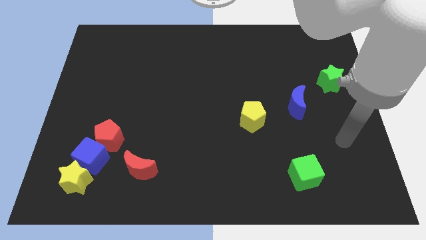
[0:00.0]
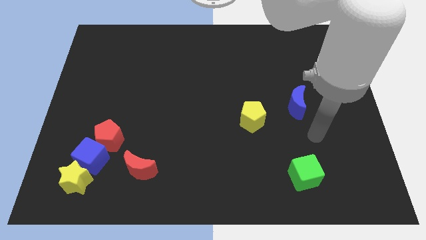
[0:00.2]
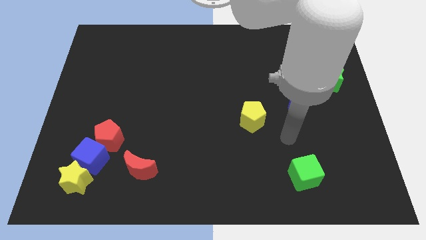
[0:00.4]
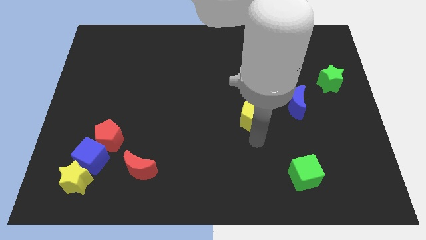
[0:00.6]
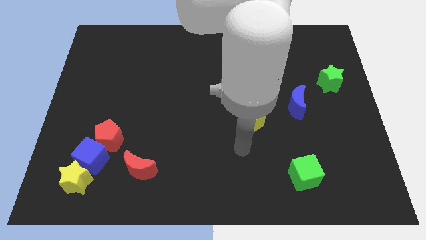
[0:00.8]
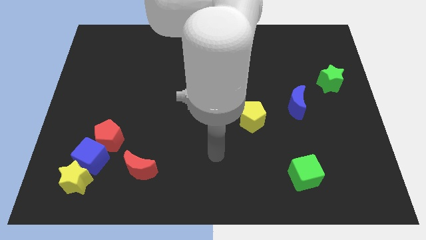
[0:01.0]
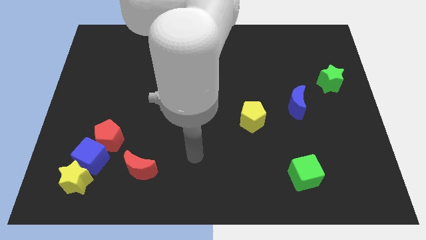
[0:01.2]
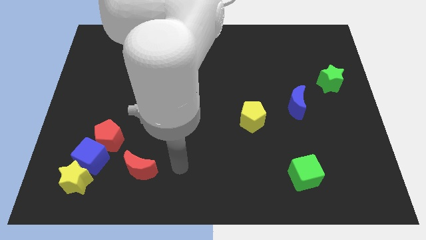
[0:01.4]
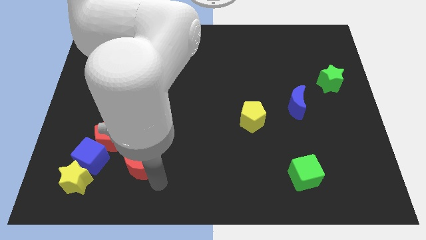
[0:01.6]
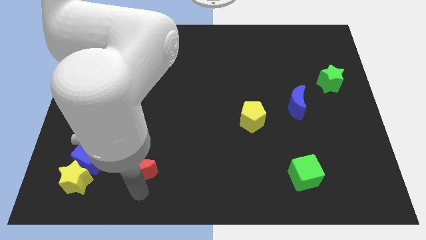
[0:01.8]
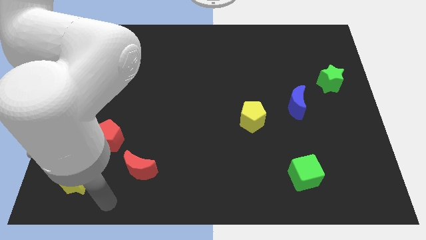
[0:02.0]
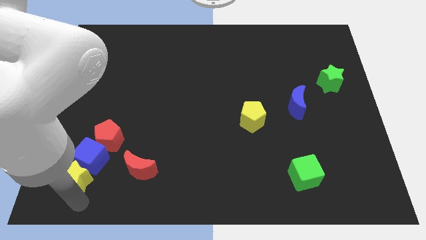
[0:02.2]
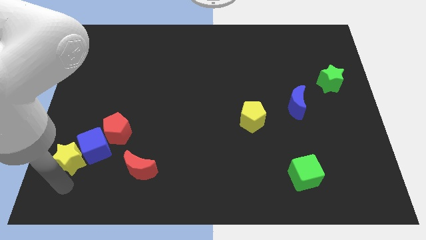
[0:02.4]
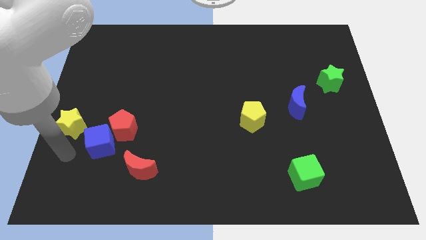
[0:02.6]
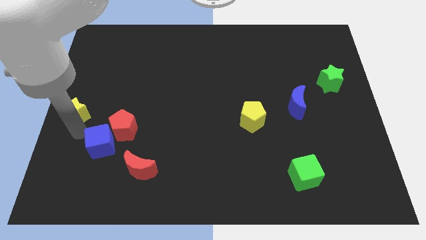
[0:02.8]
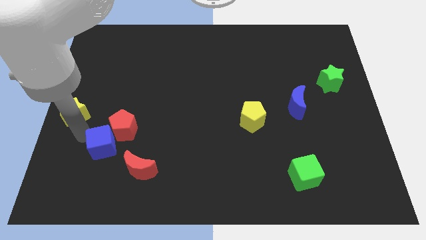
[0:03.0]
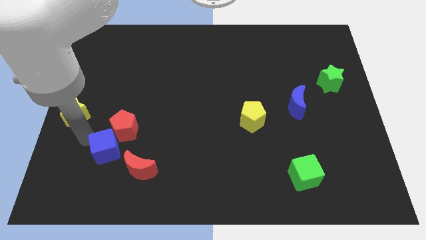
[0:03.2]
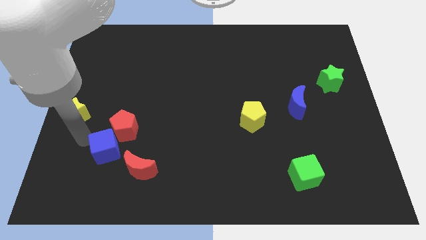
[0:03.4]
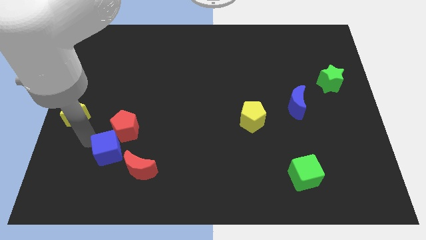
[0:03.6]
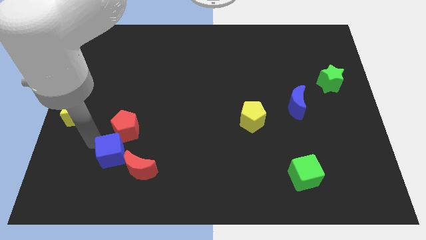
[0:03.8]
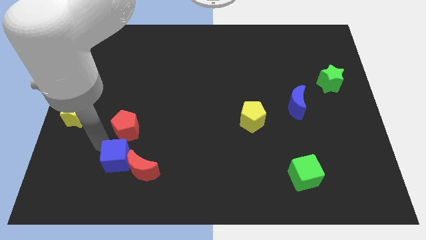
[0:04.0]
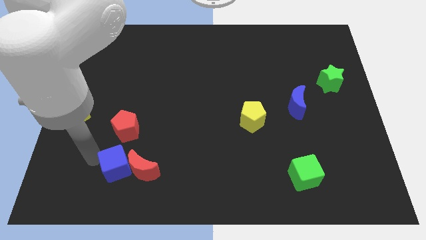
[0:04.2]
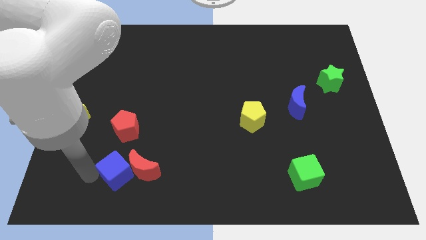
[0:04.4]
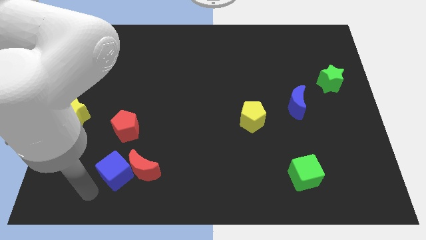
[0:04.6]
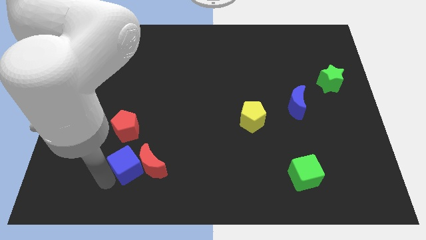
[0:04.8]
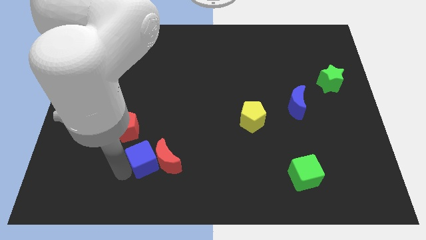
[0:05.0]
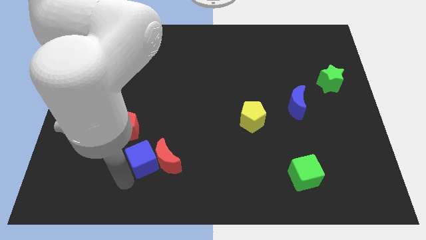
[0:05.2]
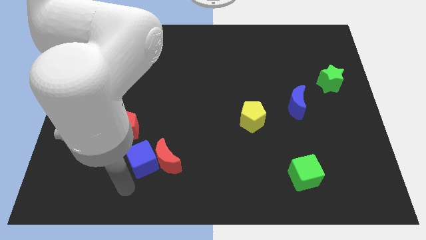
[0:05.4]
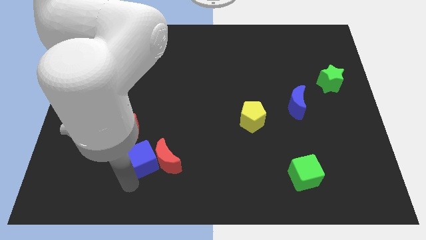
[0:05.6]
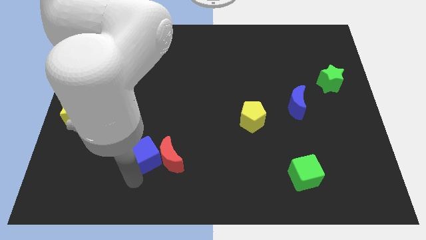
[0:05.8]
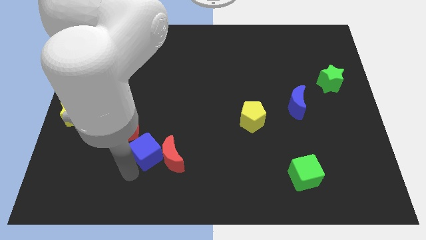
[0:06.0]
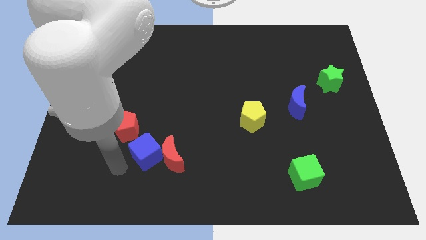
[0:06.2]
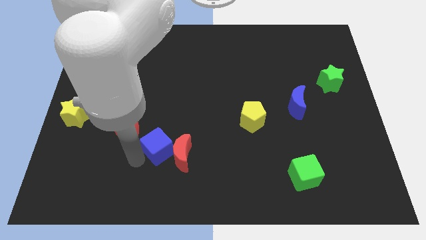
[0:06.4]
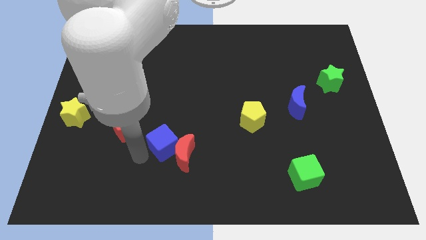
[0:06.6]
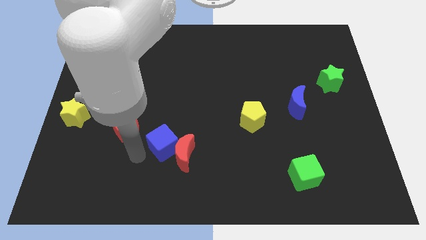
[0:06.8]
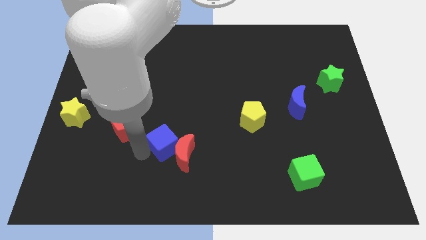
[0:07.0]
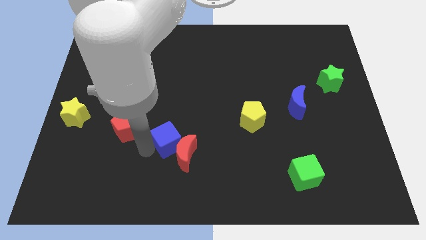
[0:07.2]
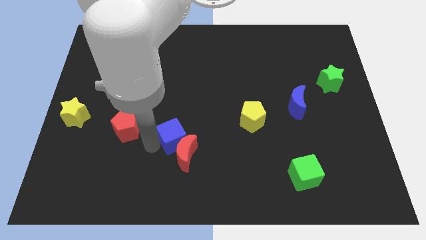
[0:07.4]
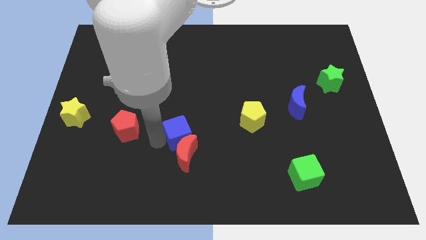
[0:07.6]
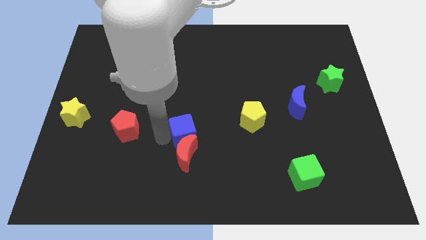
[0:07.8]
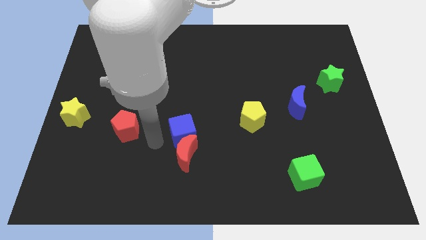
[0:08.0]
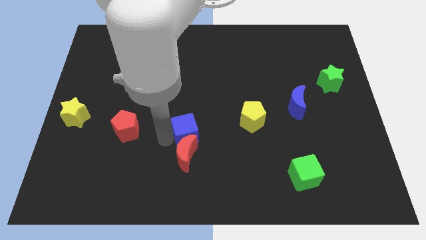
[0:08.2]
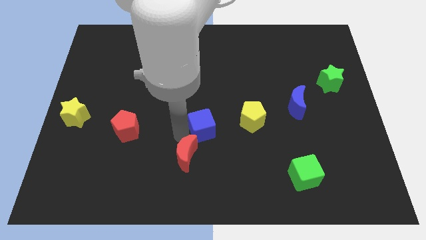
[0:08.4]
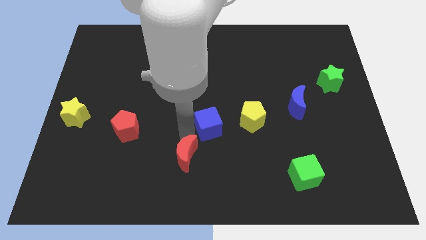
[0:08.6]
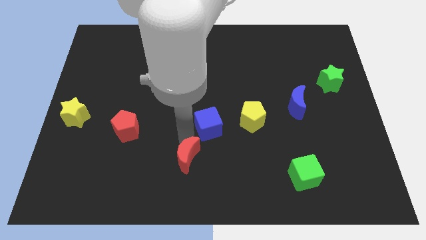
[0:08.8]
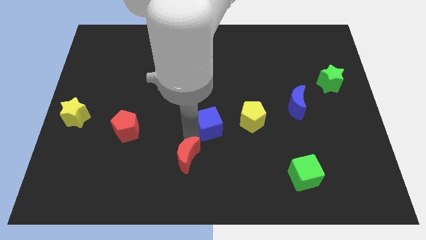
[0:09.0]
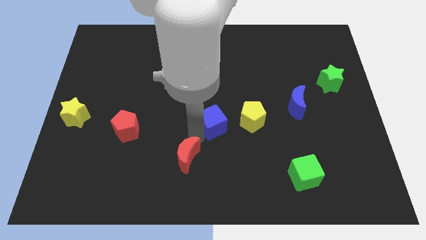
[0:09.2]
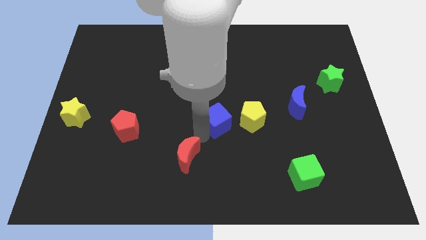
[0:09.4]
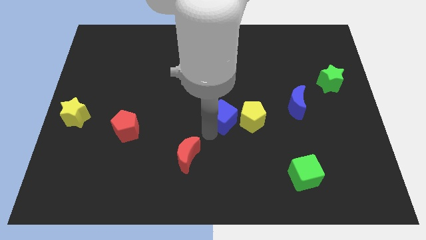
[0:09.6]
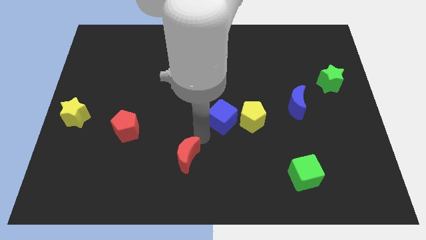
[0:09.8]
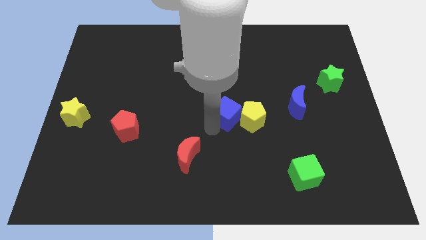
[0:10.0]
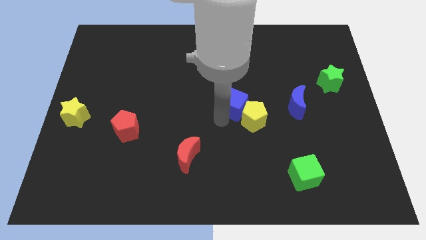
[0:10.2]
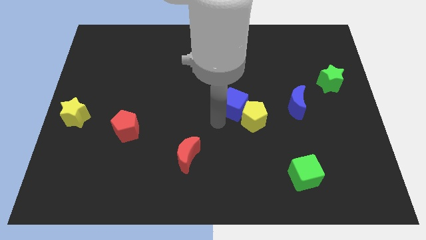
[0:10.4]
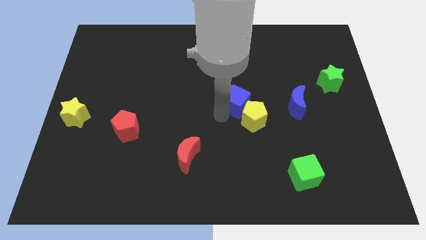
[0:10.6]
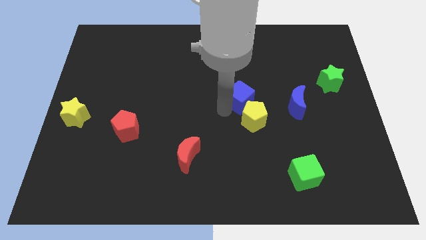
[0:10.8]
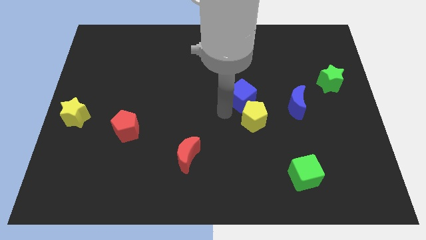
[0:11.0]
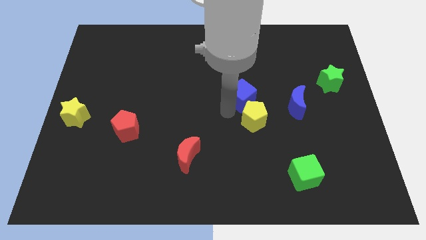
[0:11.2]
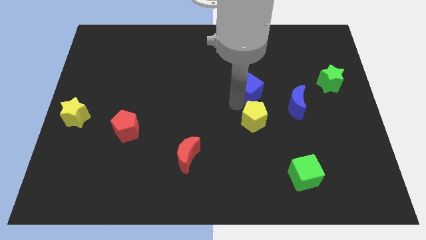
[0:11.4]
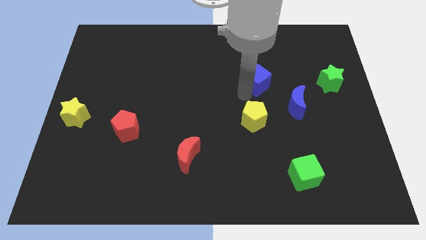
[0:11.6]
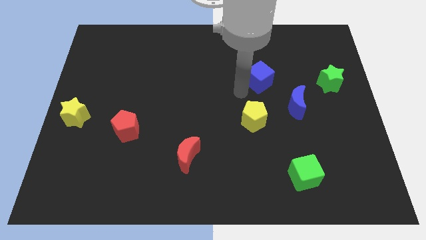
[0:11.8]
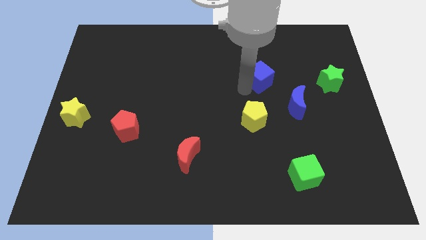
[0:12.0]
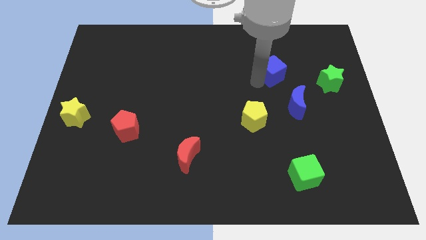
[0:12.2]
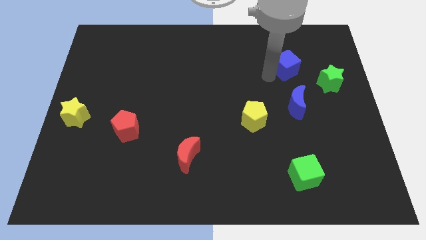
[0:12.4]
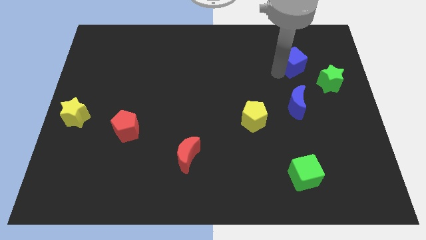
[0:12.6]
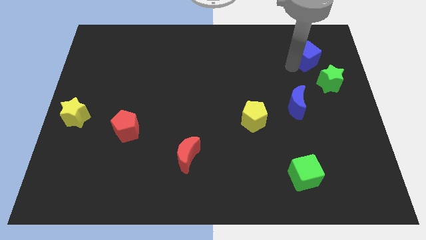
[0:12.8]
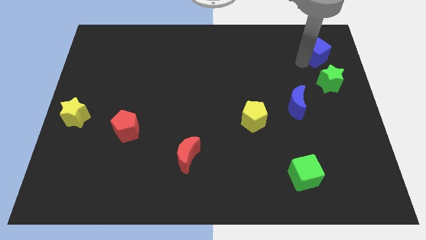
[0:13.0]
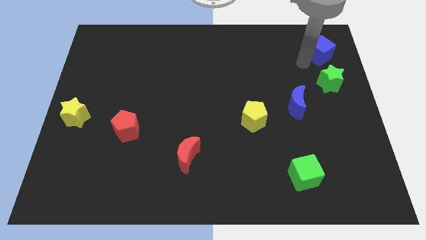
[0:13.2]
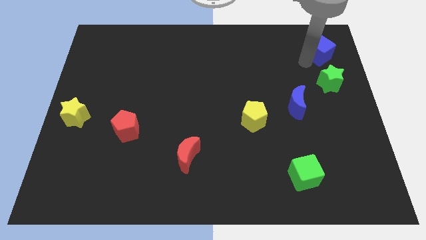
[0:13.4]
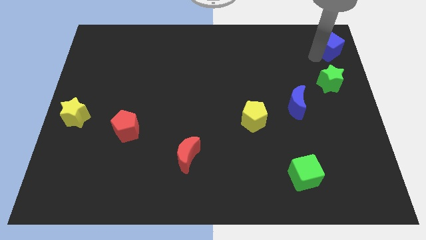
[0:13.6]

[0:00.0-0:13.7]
move the blue cube to the top right corner
